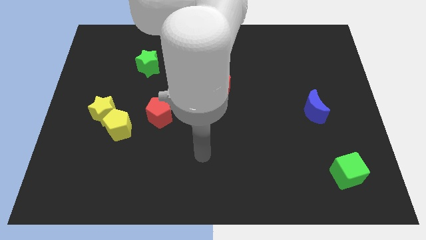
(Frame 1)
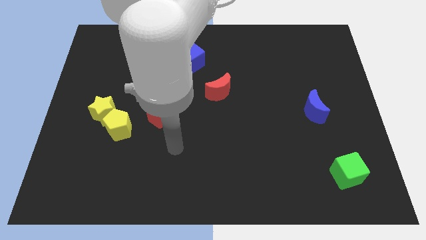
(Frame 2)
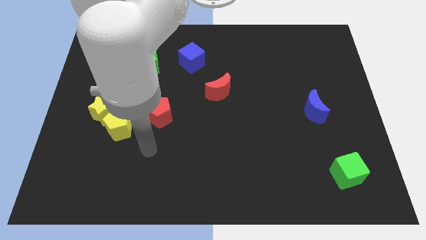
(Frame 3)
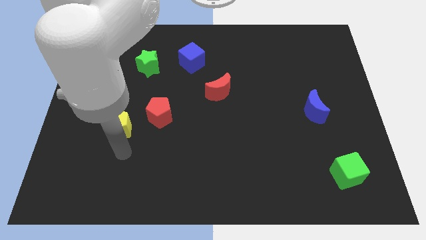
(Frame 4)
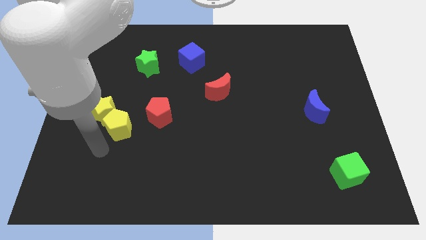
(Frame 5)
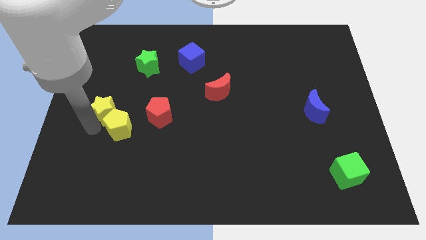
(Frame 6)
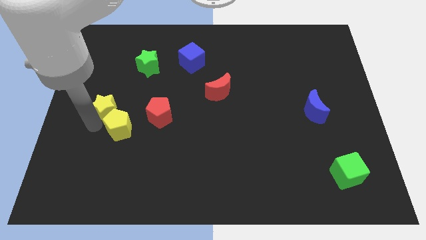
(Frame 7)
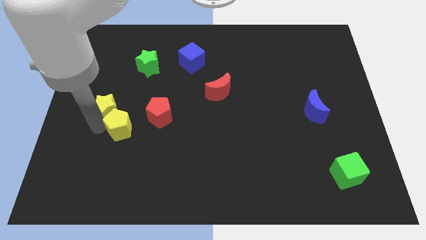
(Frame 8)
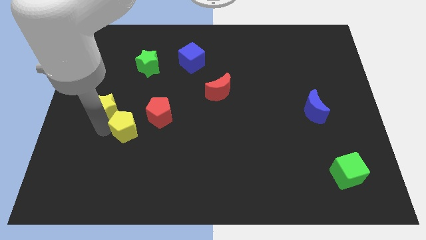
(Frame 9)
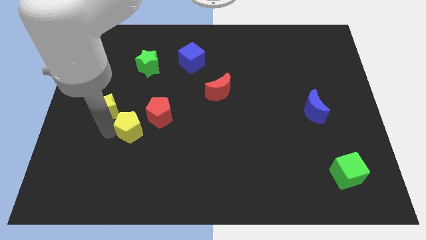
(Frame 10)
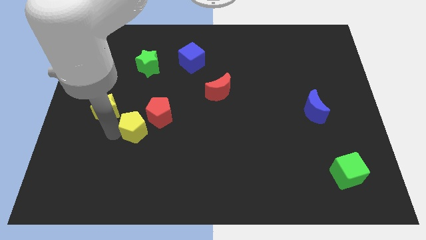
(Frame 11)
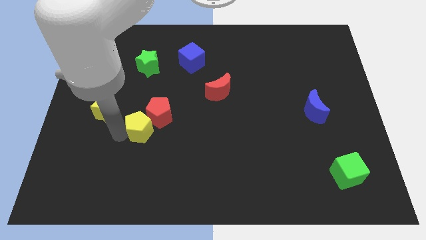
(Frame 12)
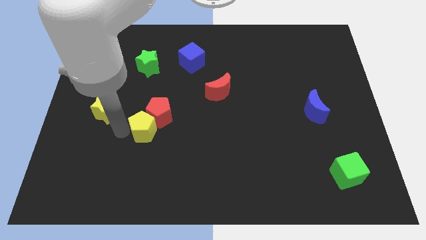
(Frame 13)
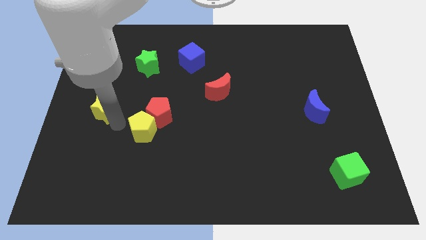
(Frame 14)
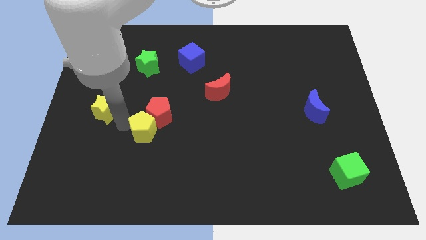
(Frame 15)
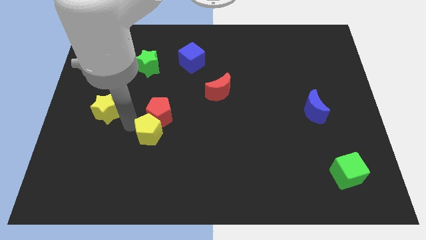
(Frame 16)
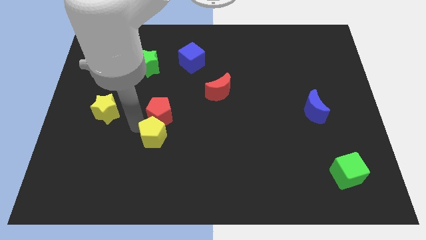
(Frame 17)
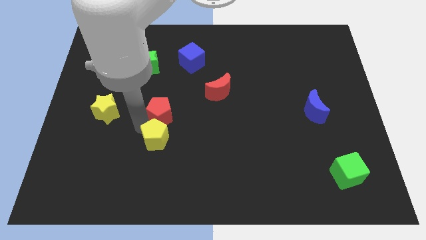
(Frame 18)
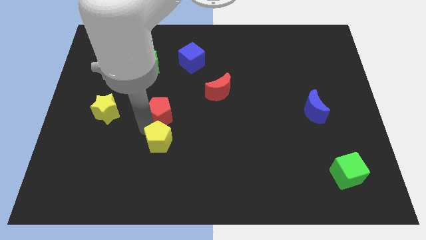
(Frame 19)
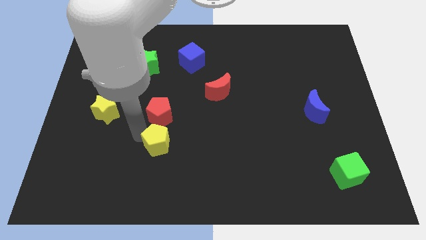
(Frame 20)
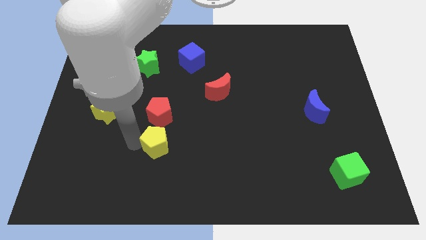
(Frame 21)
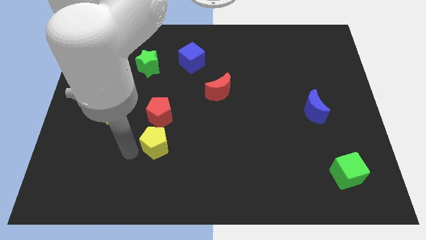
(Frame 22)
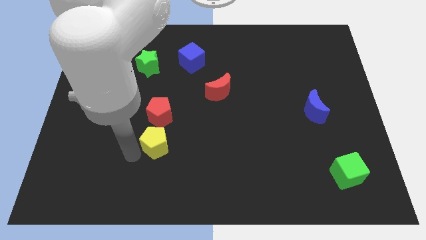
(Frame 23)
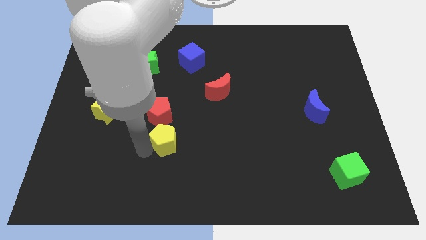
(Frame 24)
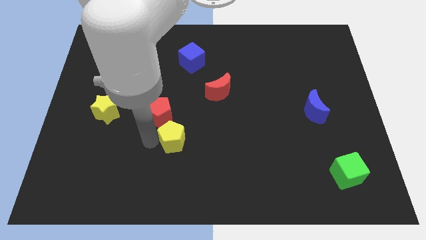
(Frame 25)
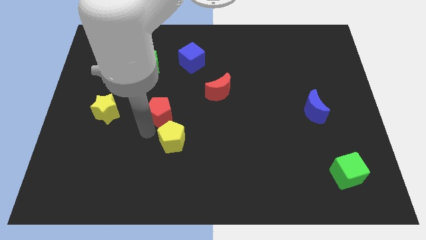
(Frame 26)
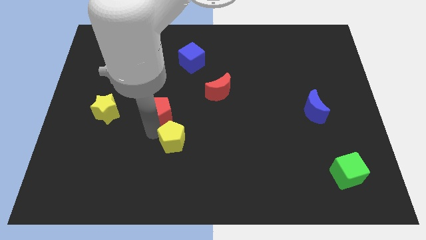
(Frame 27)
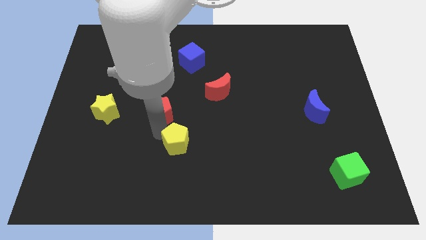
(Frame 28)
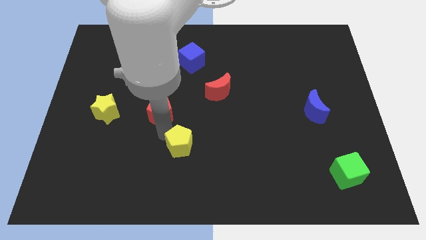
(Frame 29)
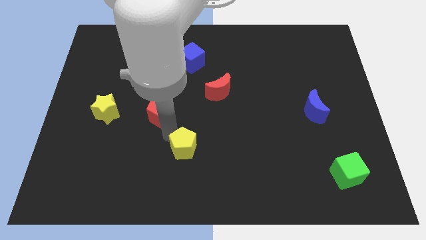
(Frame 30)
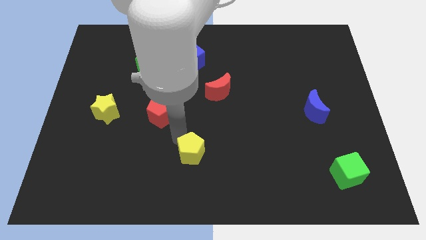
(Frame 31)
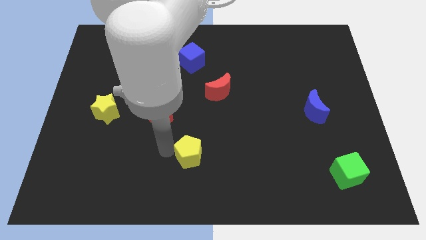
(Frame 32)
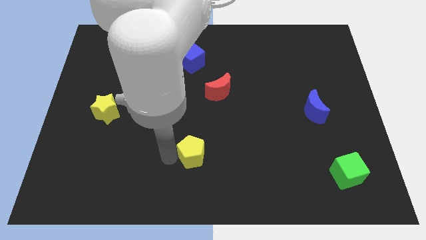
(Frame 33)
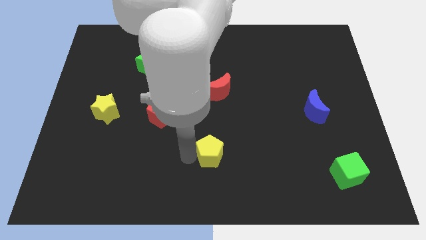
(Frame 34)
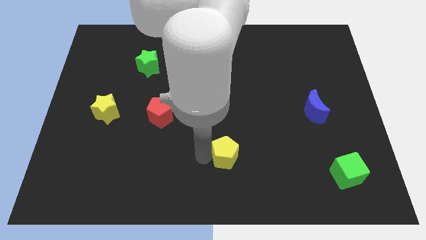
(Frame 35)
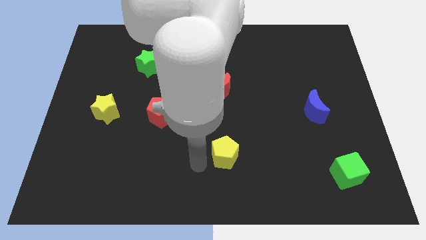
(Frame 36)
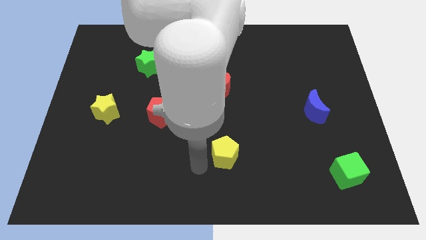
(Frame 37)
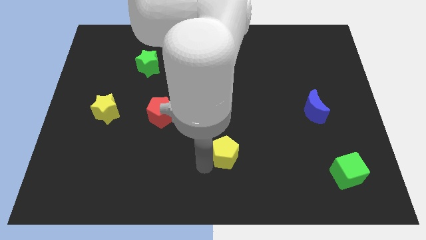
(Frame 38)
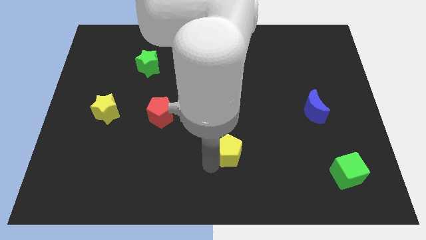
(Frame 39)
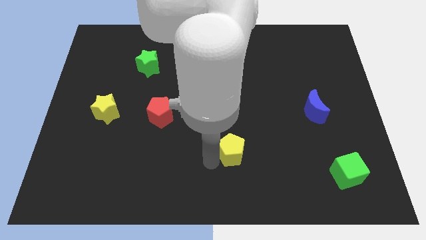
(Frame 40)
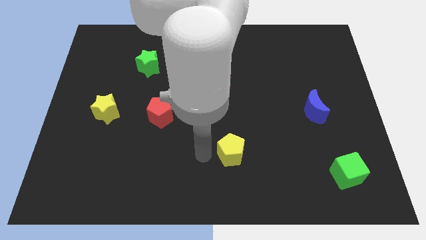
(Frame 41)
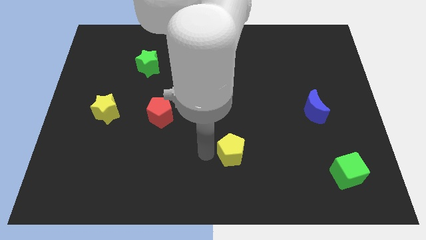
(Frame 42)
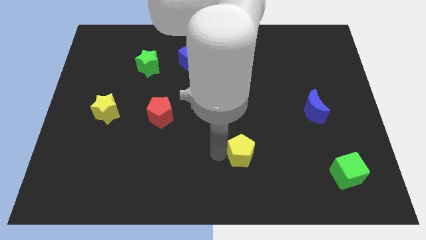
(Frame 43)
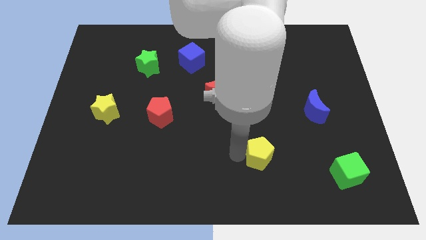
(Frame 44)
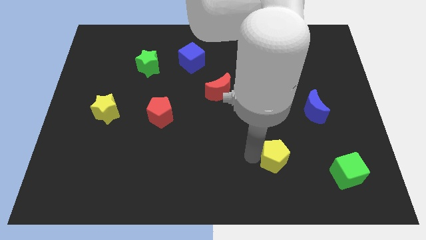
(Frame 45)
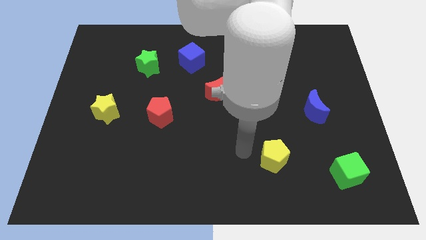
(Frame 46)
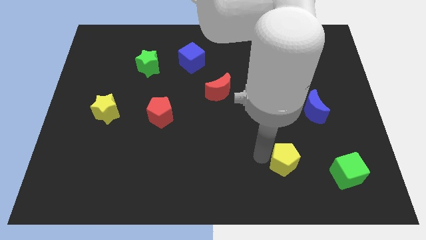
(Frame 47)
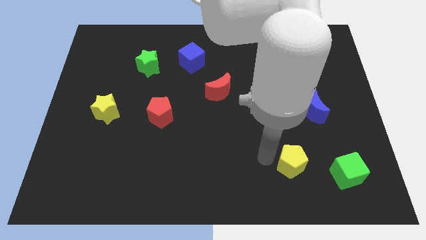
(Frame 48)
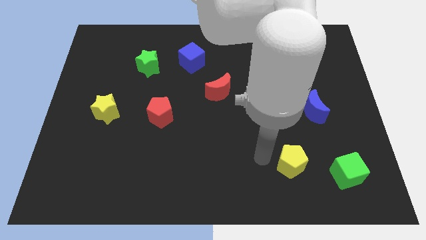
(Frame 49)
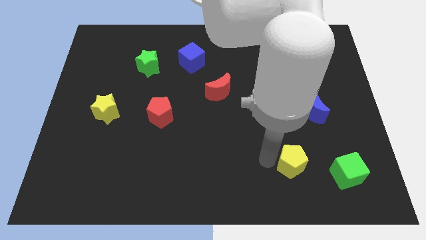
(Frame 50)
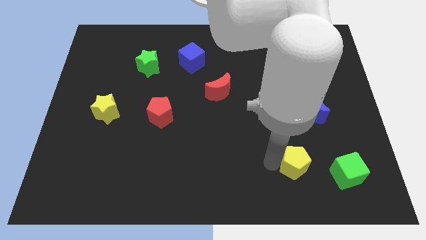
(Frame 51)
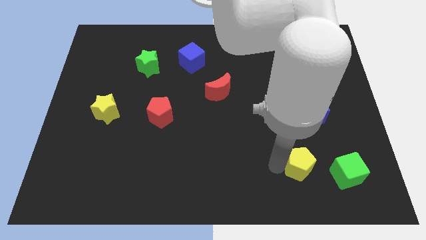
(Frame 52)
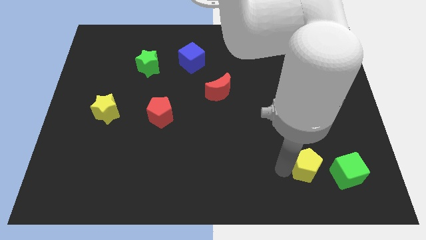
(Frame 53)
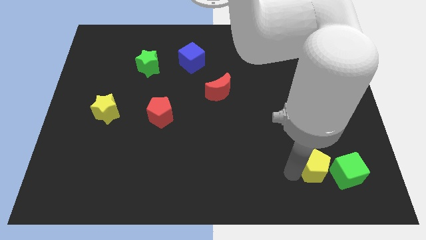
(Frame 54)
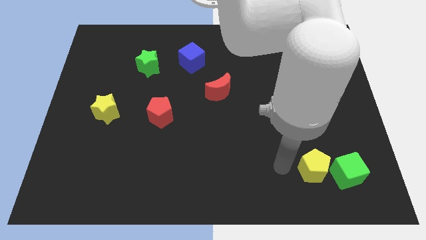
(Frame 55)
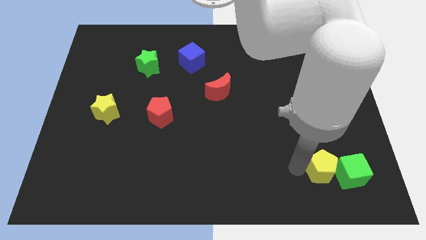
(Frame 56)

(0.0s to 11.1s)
put the yellow pentagon to the green cube
